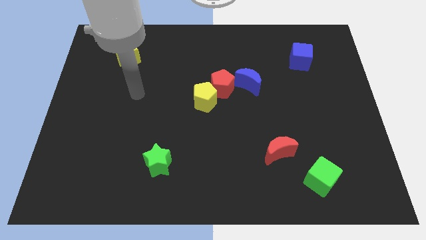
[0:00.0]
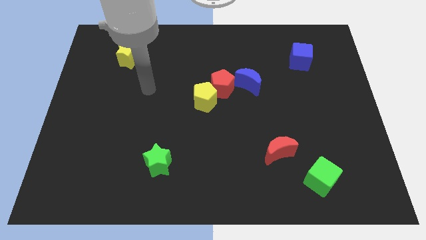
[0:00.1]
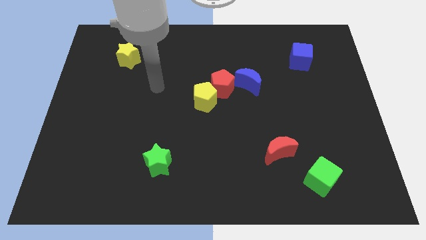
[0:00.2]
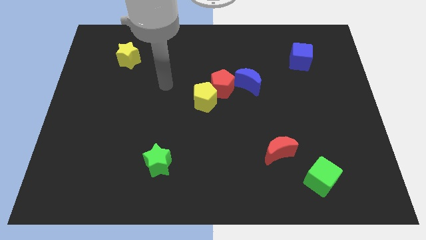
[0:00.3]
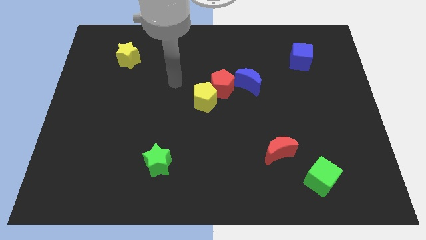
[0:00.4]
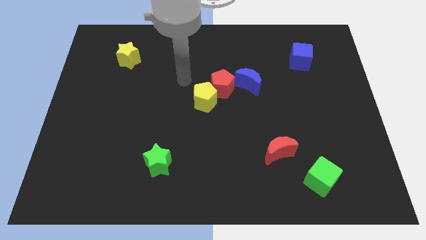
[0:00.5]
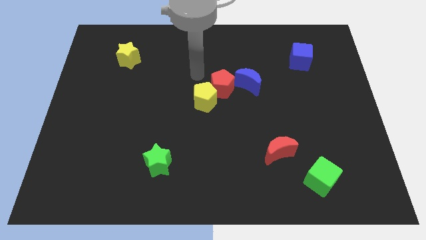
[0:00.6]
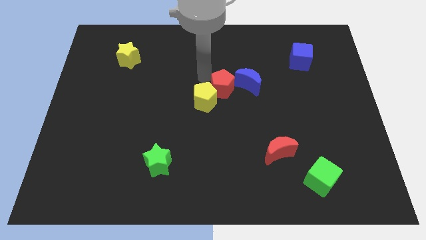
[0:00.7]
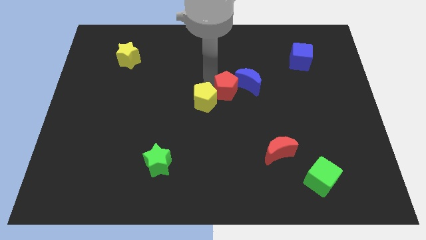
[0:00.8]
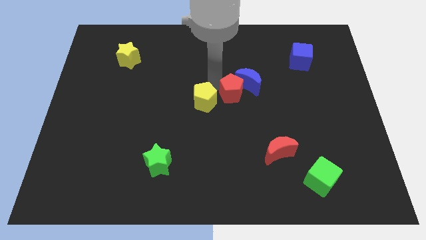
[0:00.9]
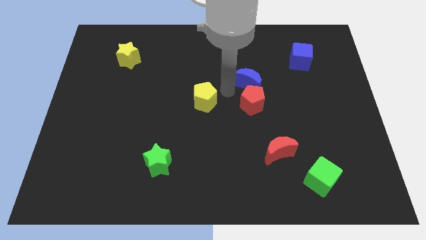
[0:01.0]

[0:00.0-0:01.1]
separate the yellow pentagon from the red pentagon

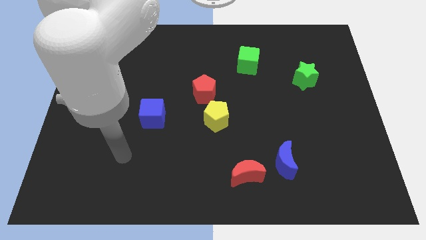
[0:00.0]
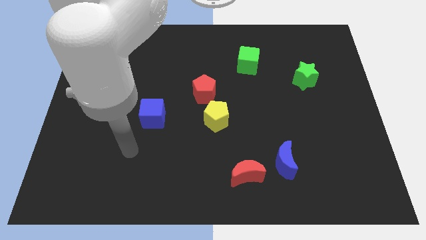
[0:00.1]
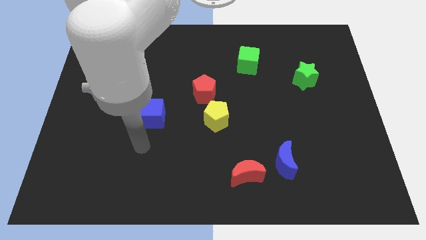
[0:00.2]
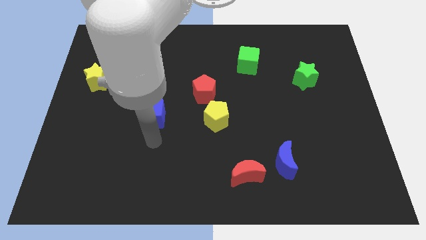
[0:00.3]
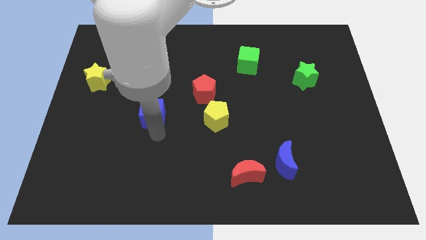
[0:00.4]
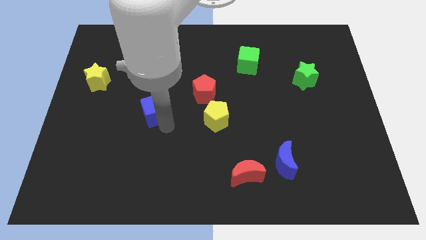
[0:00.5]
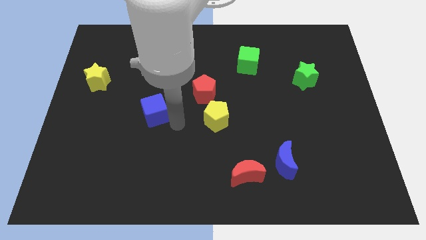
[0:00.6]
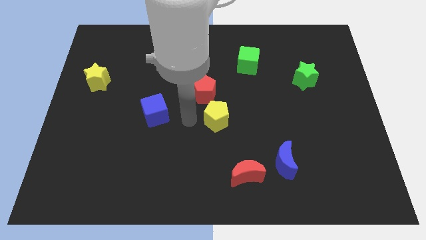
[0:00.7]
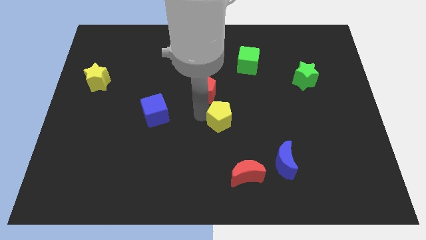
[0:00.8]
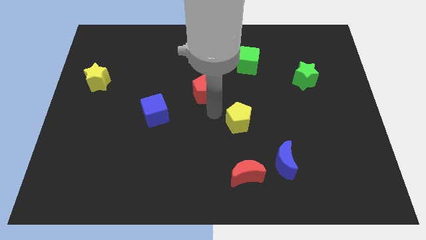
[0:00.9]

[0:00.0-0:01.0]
separate the red pentagon from the yellow pentagon

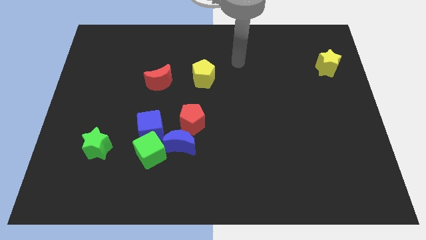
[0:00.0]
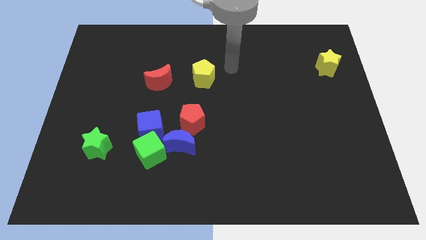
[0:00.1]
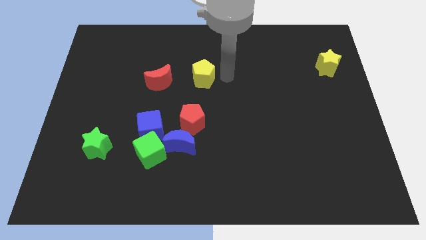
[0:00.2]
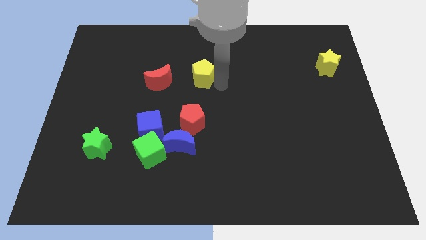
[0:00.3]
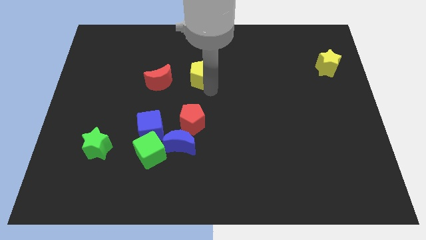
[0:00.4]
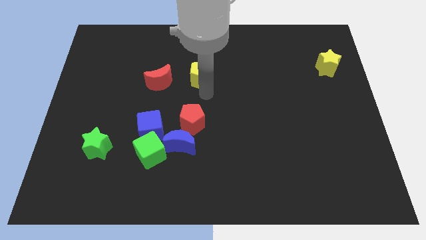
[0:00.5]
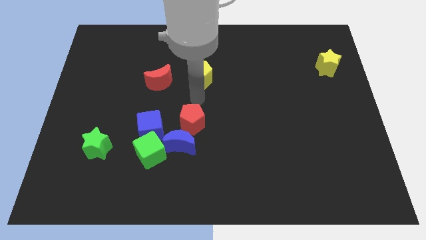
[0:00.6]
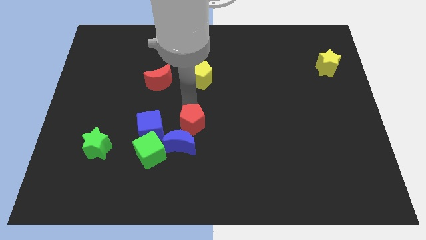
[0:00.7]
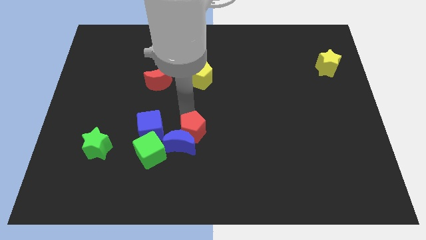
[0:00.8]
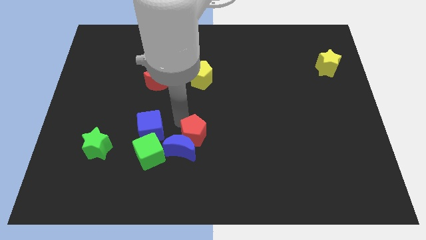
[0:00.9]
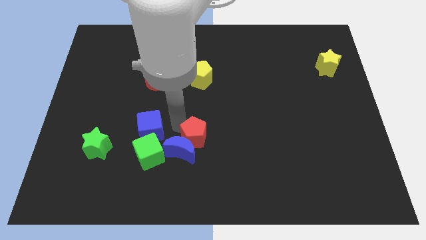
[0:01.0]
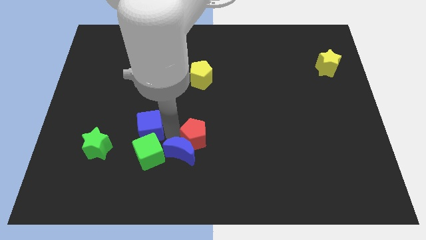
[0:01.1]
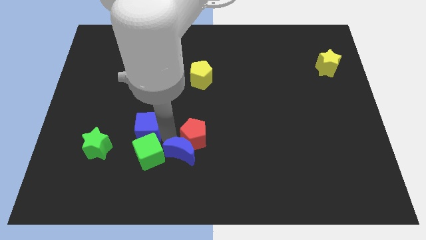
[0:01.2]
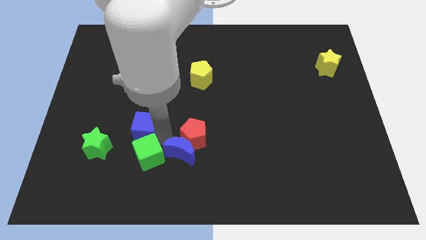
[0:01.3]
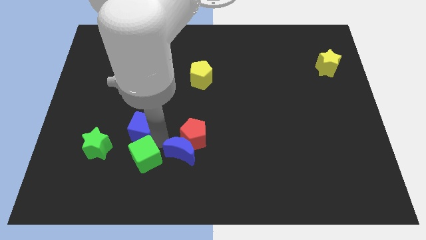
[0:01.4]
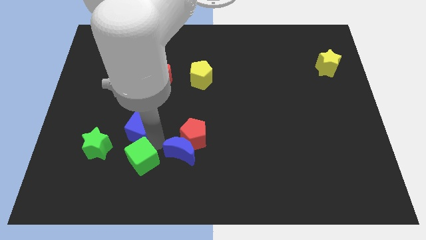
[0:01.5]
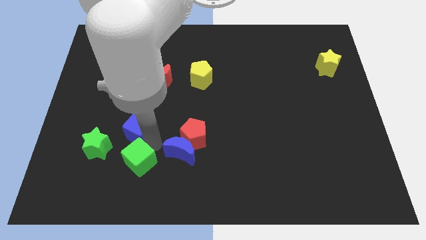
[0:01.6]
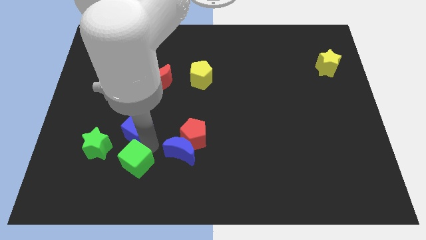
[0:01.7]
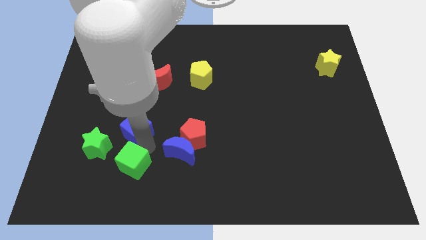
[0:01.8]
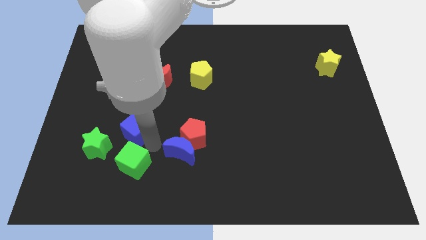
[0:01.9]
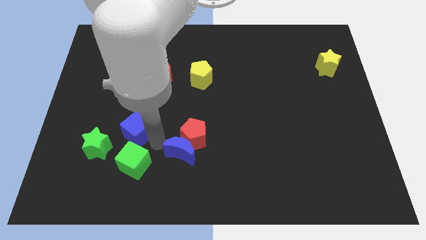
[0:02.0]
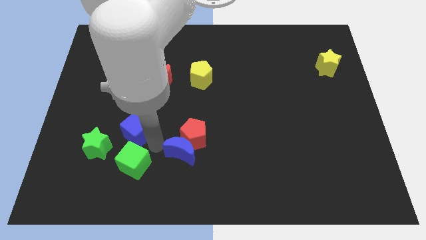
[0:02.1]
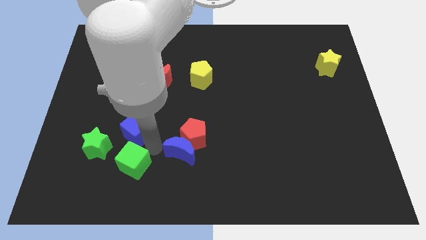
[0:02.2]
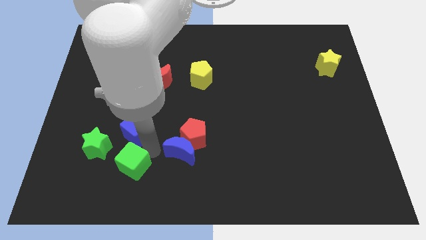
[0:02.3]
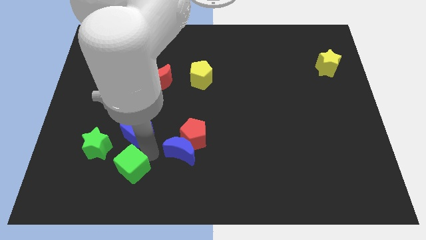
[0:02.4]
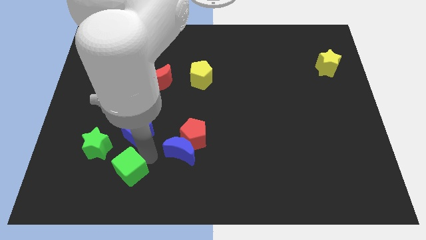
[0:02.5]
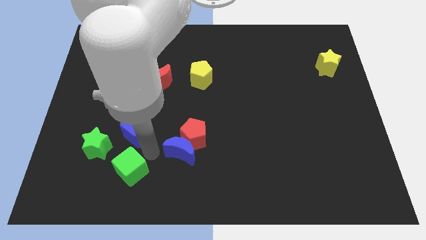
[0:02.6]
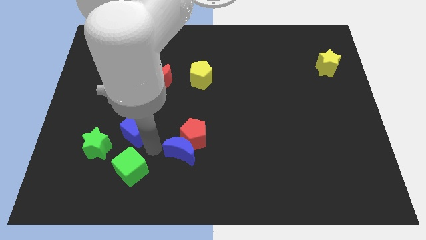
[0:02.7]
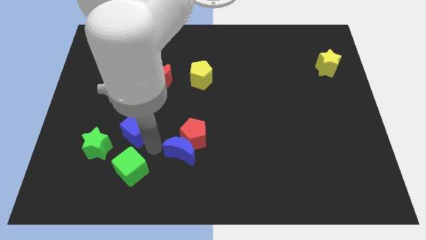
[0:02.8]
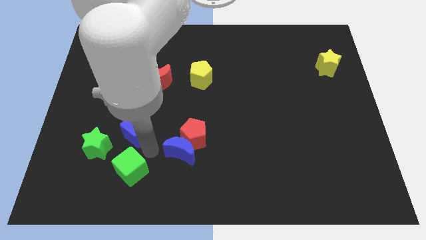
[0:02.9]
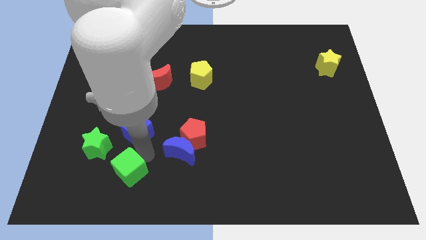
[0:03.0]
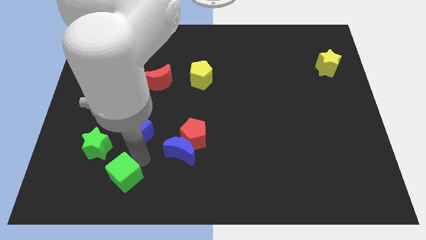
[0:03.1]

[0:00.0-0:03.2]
separate the green cube from the blue cube and blue moon

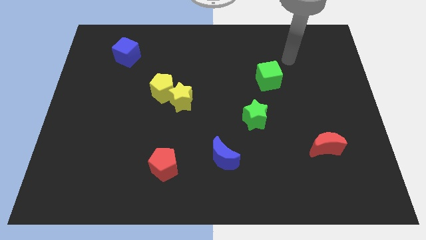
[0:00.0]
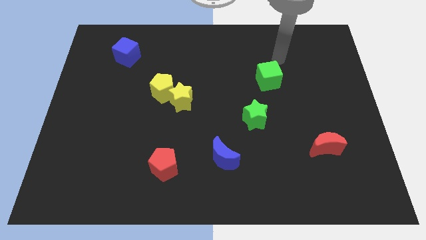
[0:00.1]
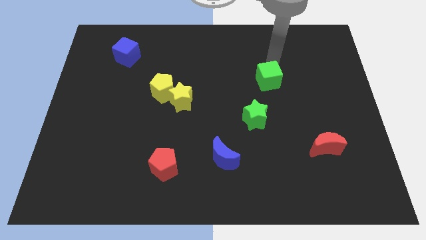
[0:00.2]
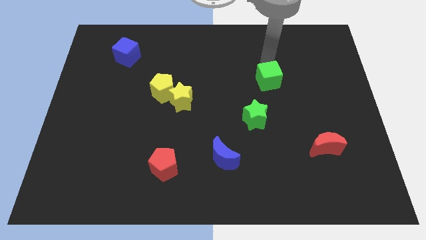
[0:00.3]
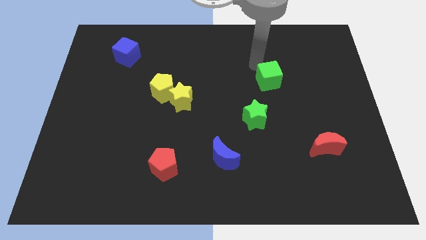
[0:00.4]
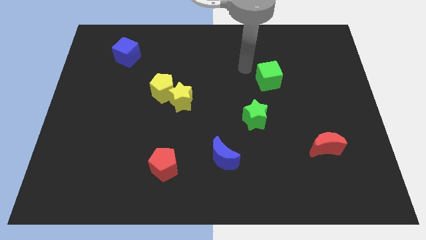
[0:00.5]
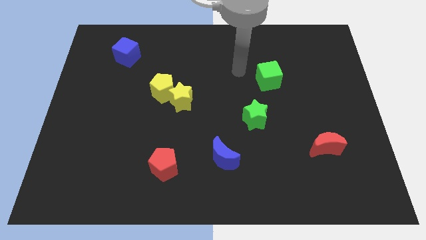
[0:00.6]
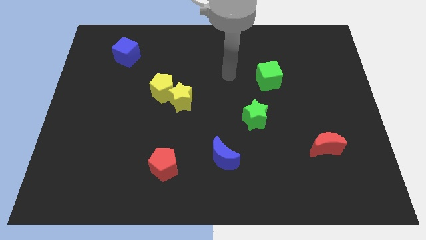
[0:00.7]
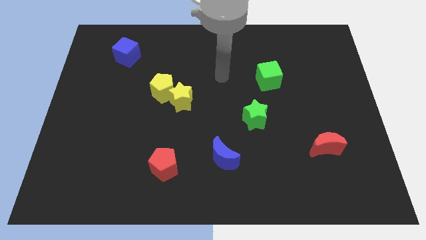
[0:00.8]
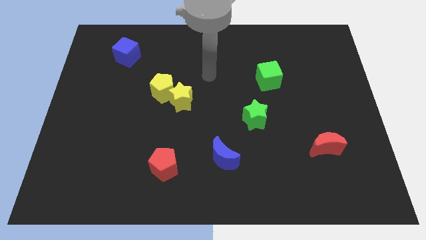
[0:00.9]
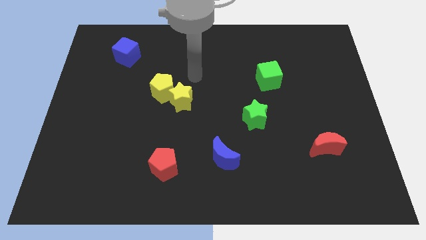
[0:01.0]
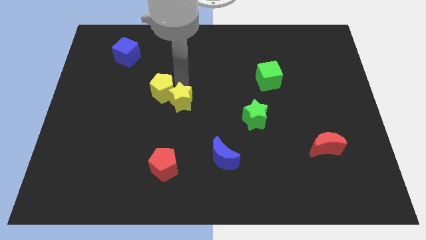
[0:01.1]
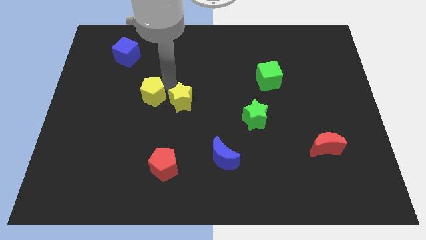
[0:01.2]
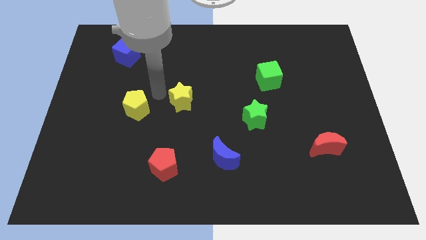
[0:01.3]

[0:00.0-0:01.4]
move the yellow star away from the yellow pentagon

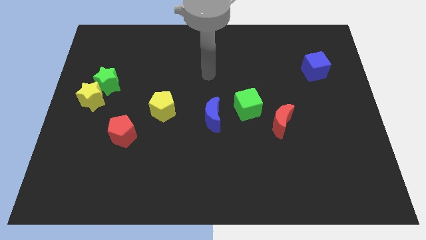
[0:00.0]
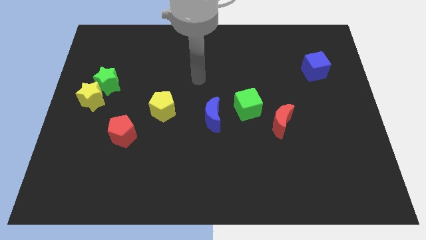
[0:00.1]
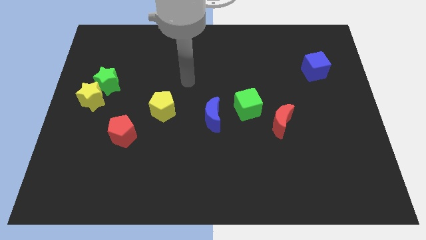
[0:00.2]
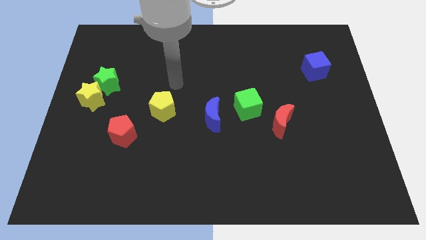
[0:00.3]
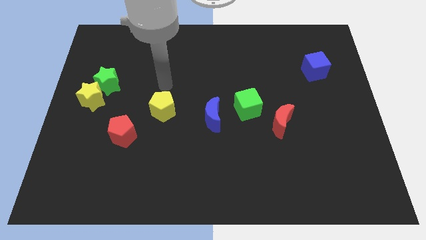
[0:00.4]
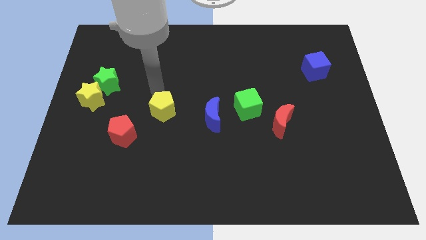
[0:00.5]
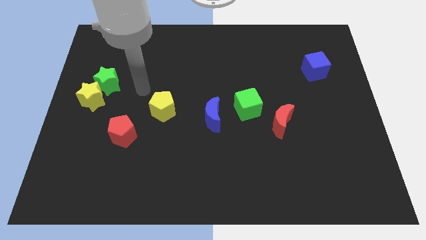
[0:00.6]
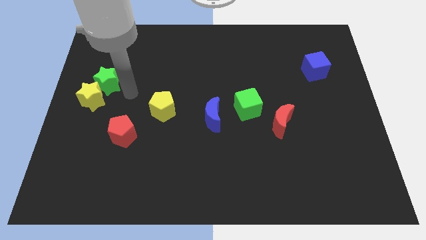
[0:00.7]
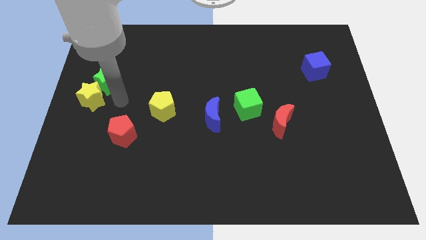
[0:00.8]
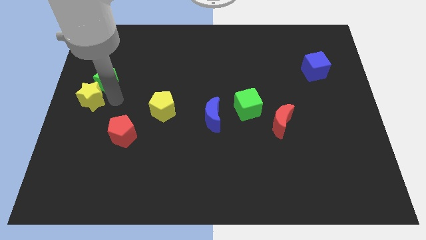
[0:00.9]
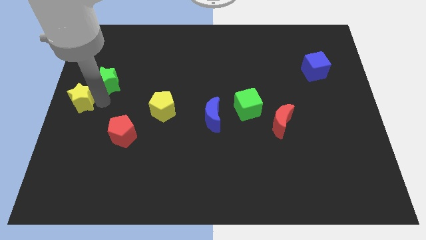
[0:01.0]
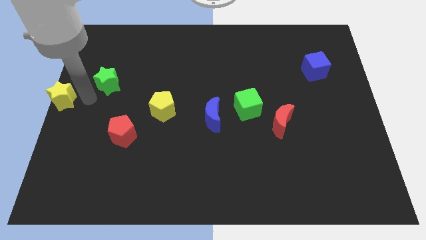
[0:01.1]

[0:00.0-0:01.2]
pull the green star apart from the yellow star

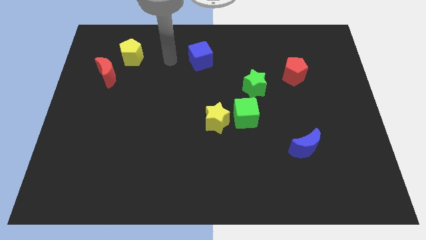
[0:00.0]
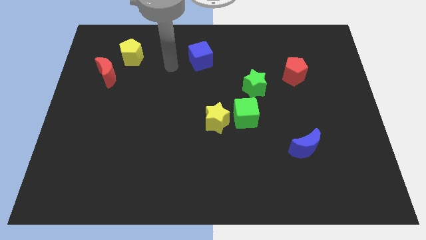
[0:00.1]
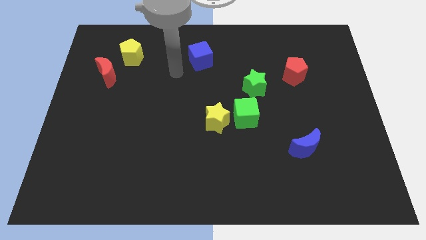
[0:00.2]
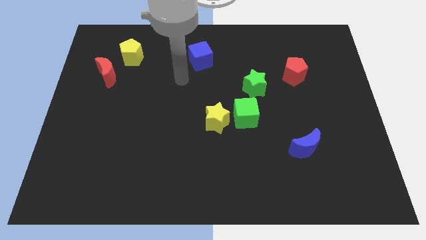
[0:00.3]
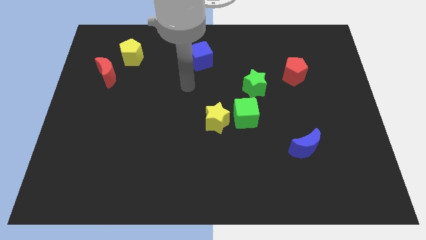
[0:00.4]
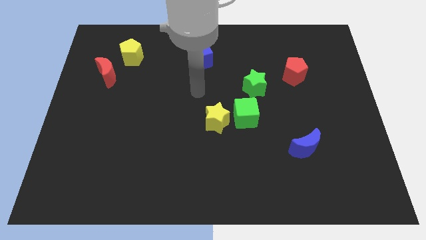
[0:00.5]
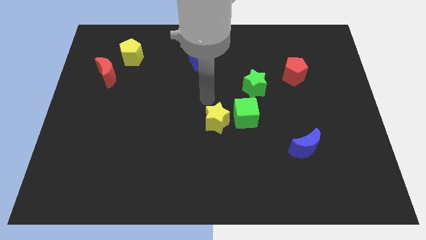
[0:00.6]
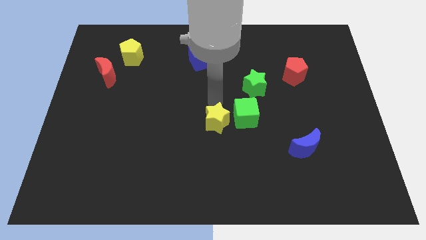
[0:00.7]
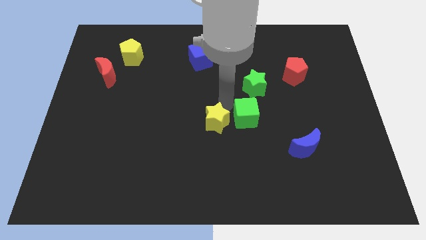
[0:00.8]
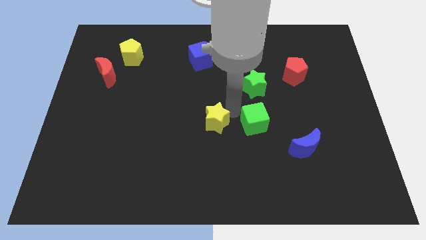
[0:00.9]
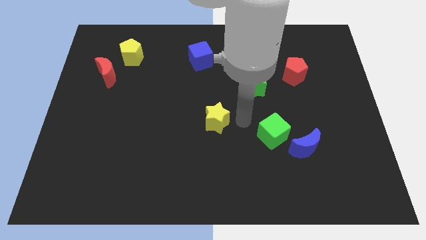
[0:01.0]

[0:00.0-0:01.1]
separate the yellow star from the green cube

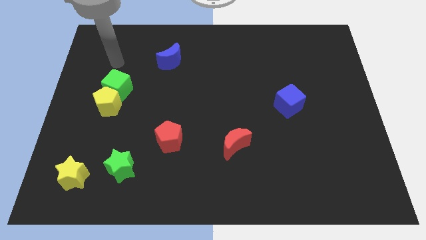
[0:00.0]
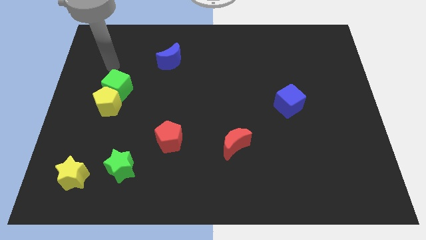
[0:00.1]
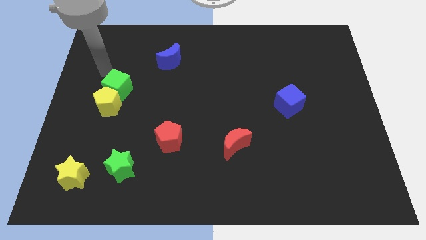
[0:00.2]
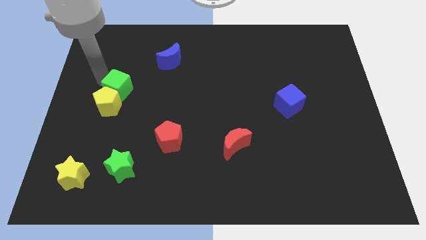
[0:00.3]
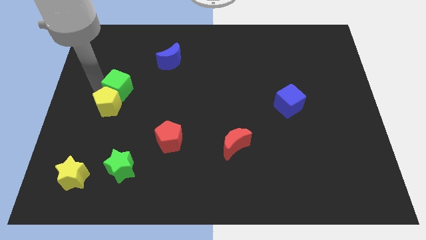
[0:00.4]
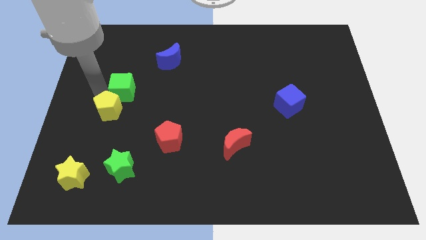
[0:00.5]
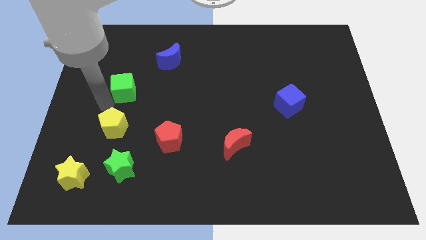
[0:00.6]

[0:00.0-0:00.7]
move the green cube away from the yellow pentagon
